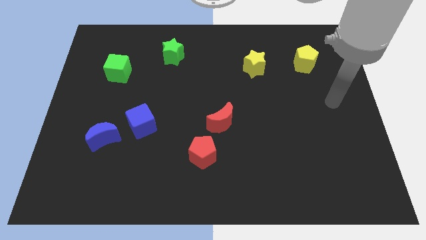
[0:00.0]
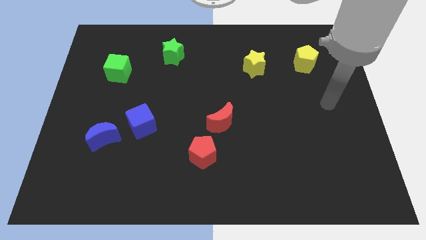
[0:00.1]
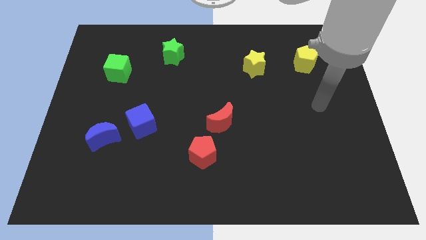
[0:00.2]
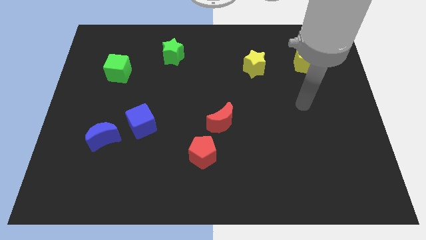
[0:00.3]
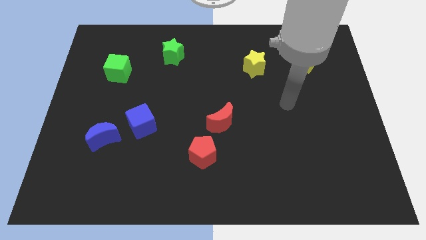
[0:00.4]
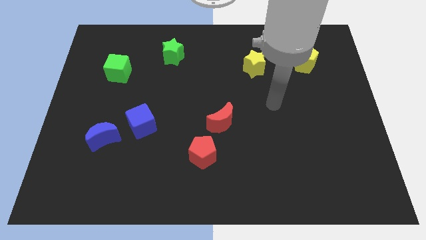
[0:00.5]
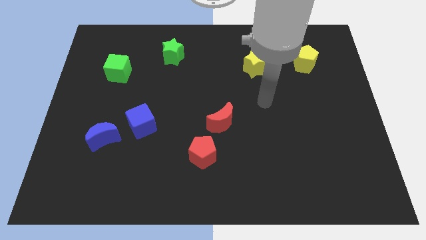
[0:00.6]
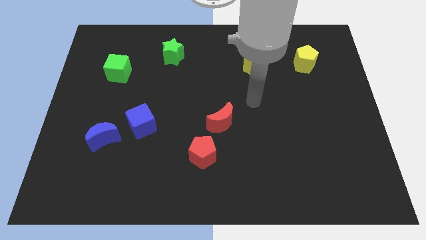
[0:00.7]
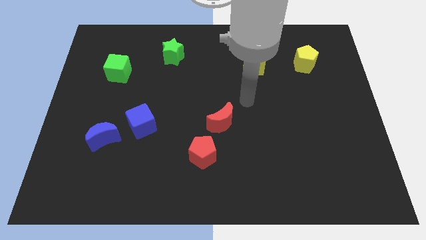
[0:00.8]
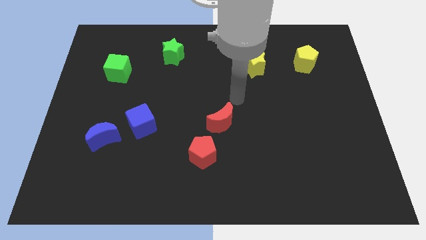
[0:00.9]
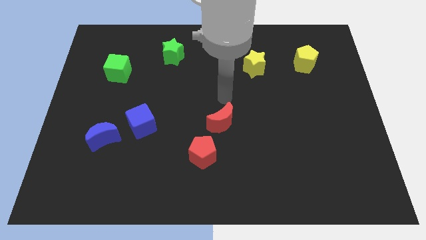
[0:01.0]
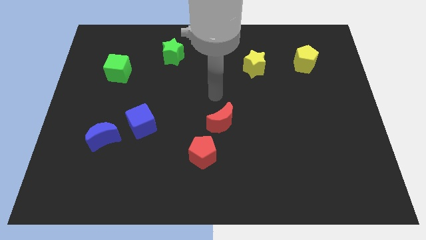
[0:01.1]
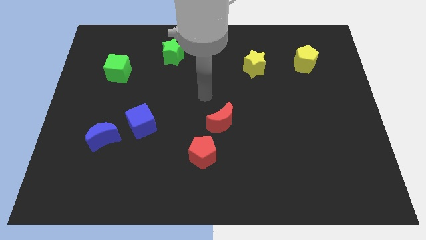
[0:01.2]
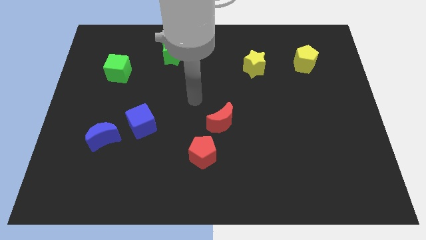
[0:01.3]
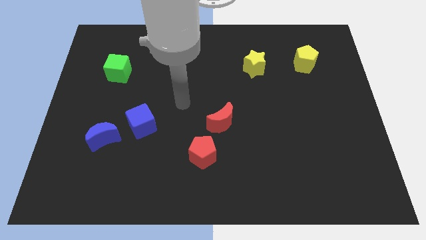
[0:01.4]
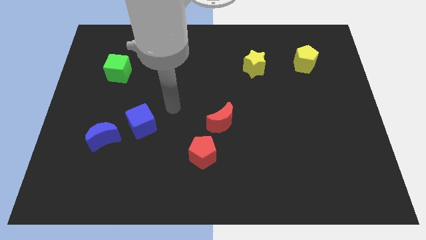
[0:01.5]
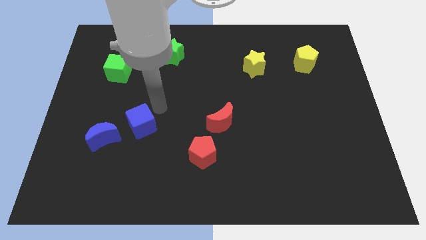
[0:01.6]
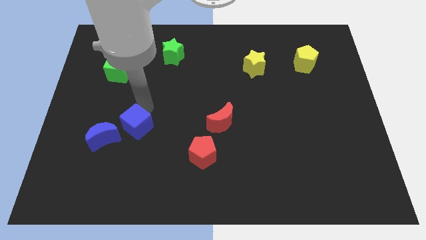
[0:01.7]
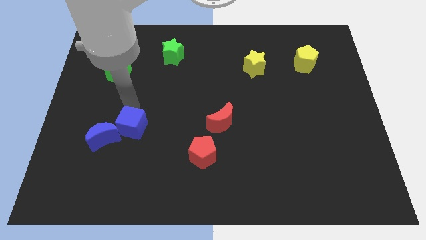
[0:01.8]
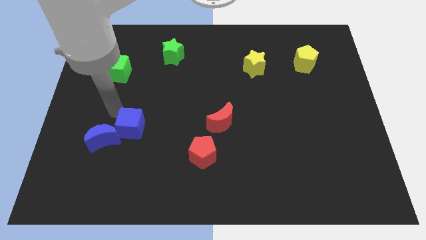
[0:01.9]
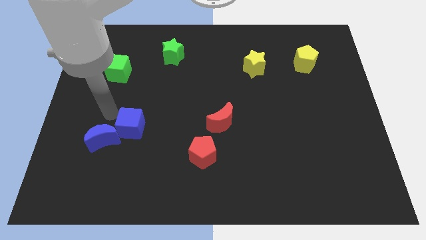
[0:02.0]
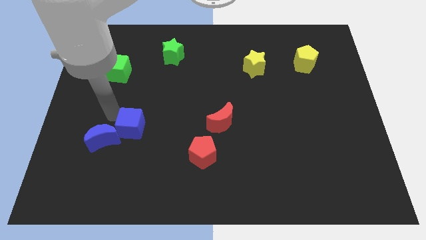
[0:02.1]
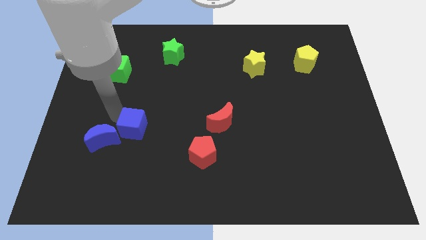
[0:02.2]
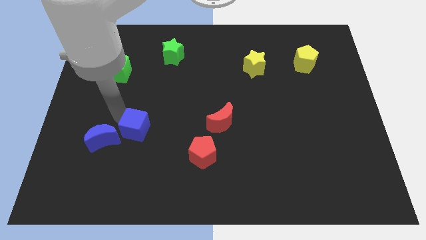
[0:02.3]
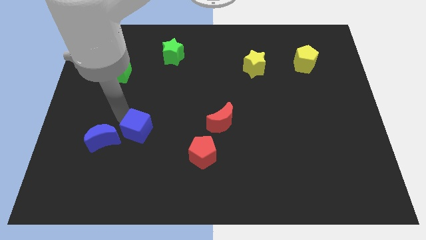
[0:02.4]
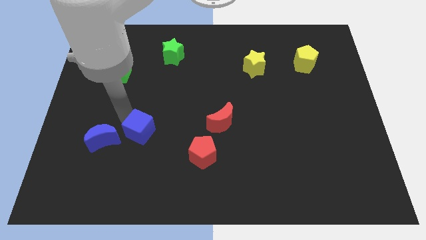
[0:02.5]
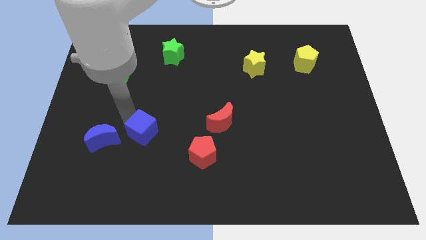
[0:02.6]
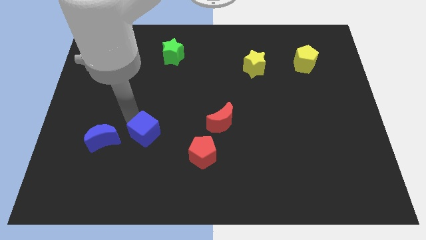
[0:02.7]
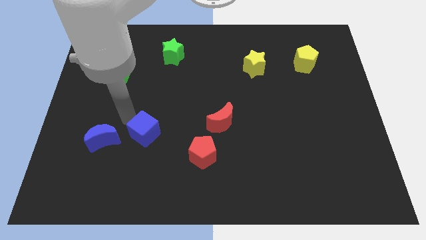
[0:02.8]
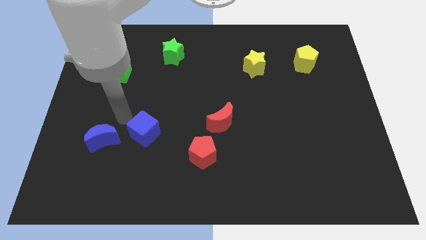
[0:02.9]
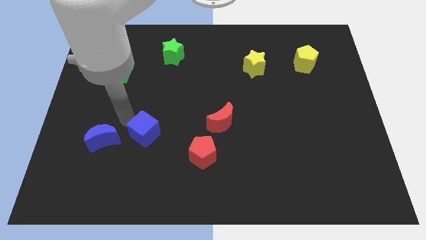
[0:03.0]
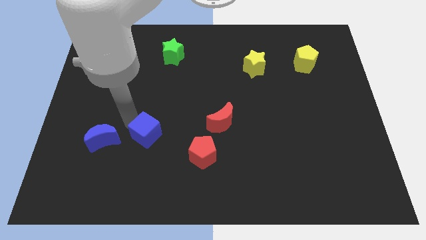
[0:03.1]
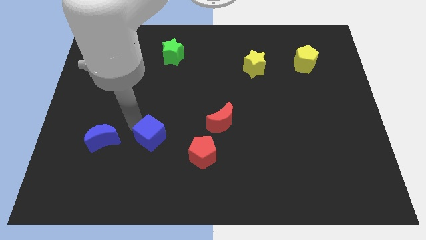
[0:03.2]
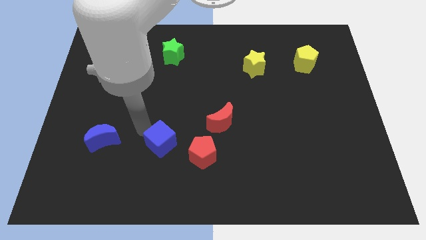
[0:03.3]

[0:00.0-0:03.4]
move the blue cube downwards and then right somewhat

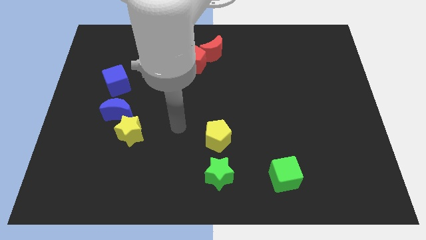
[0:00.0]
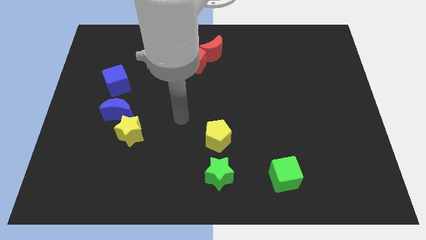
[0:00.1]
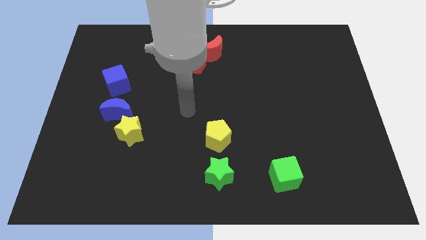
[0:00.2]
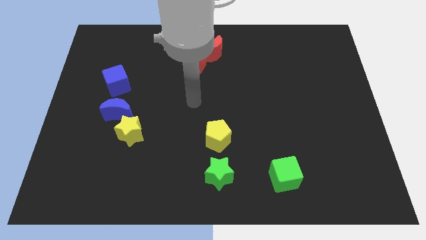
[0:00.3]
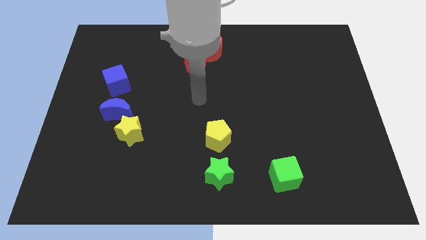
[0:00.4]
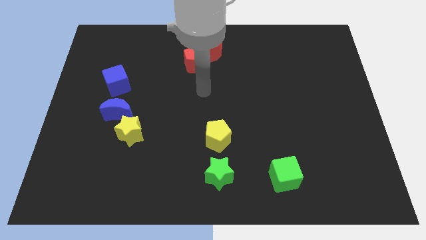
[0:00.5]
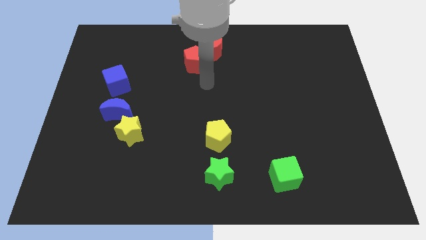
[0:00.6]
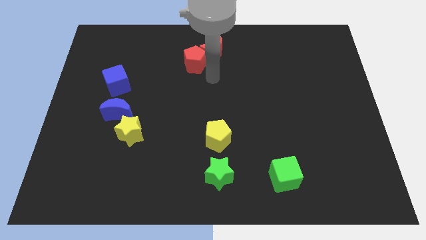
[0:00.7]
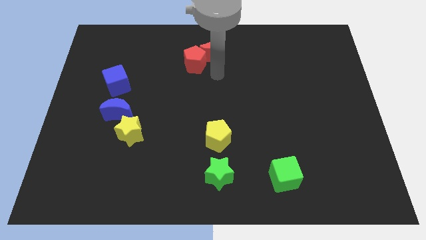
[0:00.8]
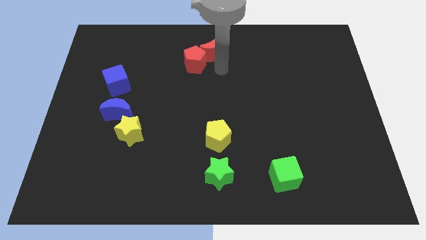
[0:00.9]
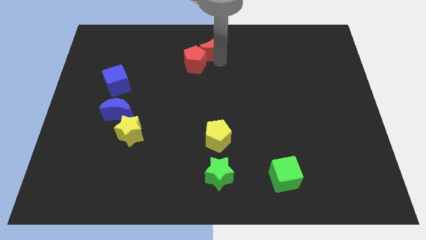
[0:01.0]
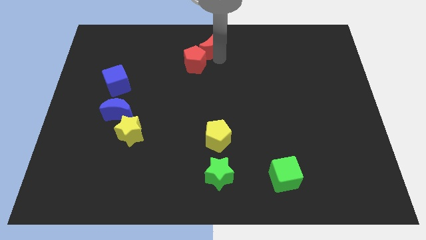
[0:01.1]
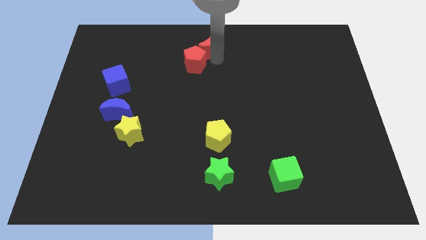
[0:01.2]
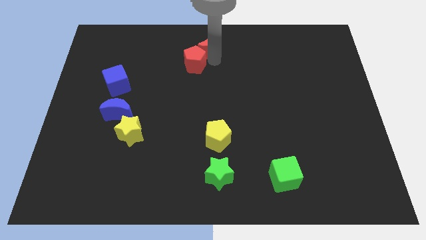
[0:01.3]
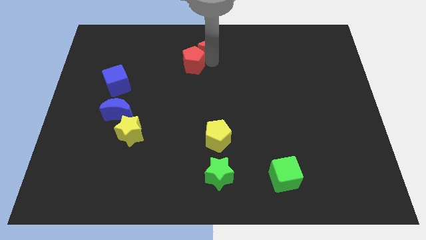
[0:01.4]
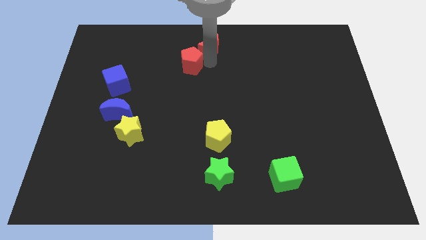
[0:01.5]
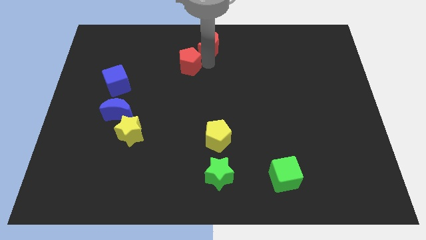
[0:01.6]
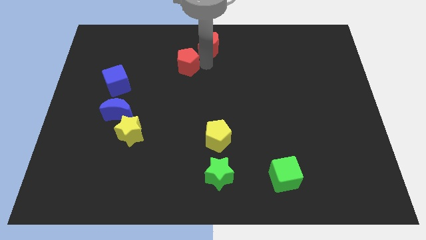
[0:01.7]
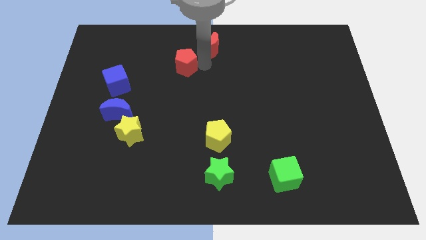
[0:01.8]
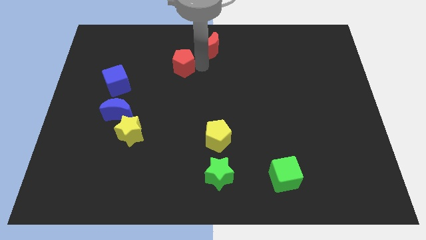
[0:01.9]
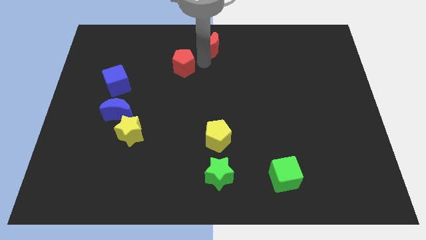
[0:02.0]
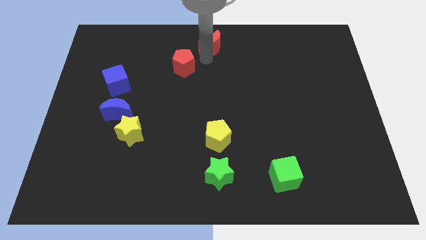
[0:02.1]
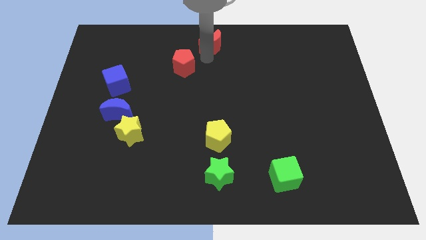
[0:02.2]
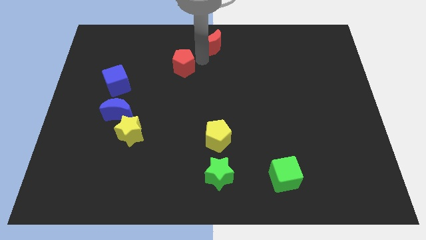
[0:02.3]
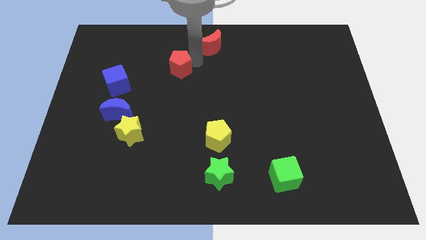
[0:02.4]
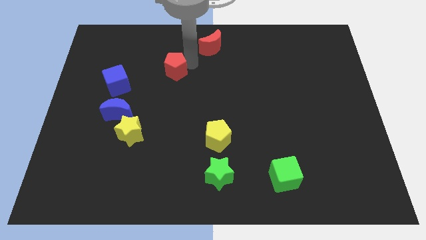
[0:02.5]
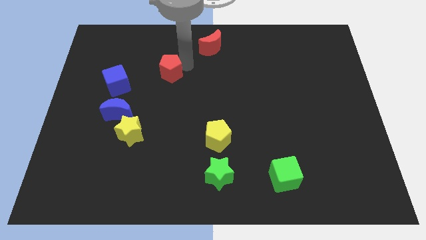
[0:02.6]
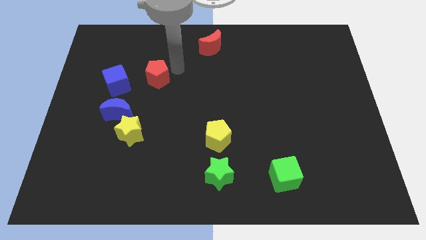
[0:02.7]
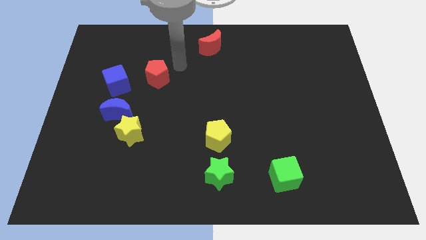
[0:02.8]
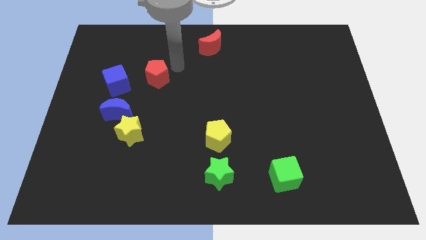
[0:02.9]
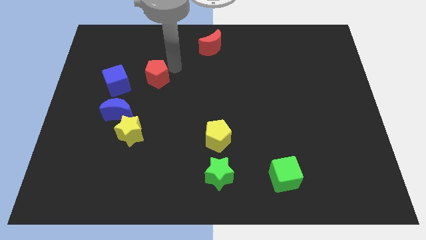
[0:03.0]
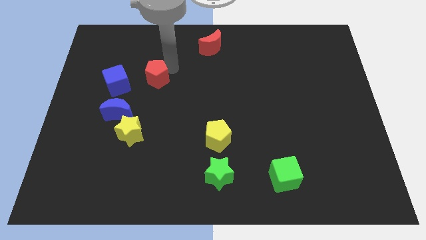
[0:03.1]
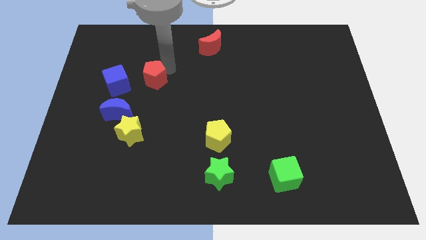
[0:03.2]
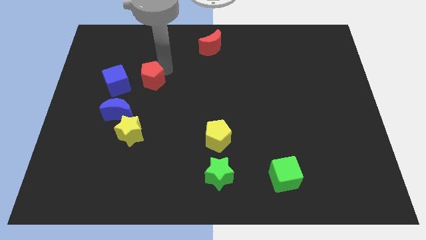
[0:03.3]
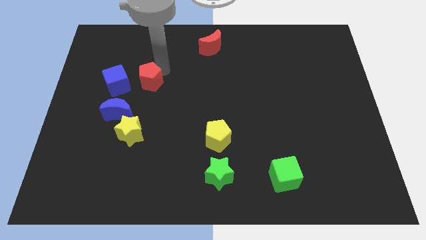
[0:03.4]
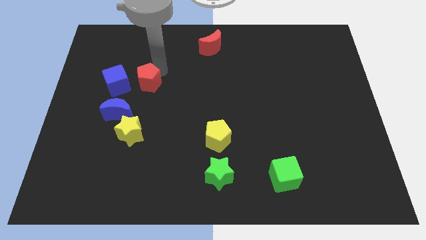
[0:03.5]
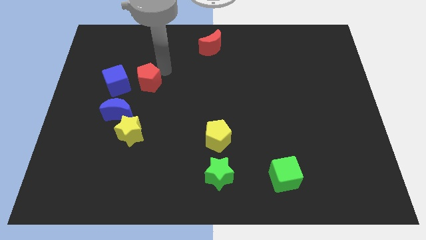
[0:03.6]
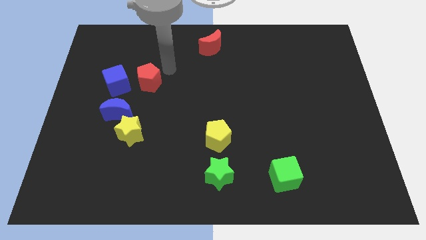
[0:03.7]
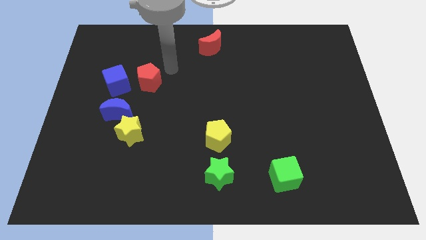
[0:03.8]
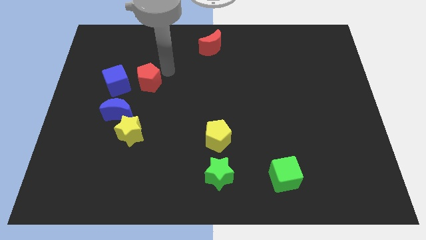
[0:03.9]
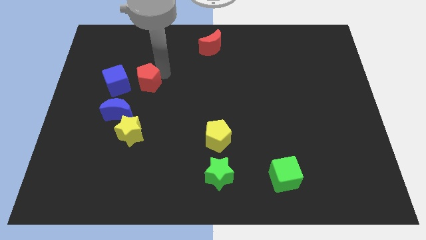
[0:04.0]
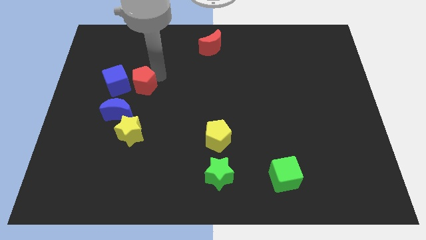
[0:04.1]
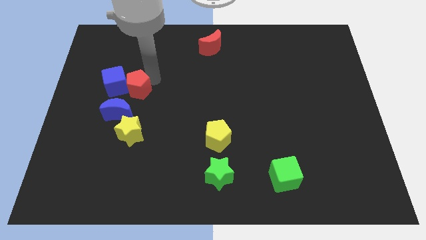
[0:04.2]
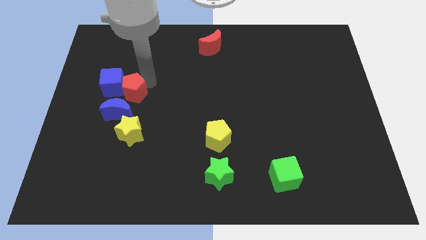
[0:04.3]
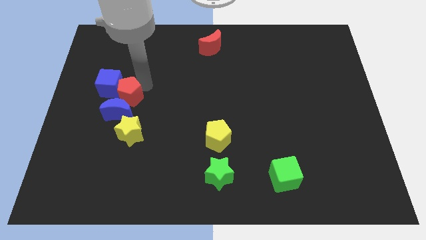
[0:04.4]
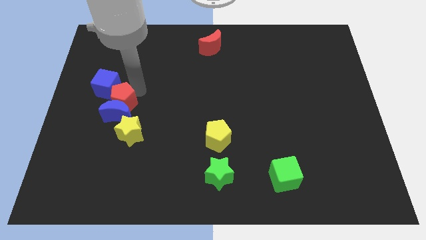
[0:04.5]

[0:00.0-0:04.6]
move the red pentagon diagonally down and to the left
